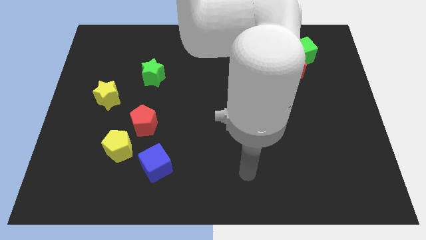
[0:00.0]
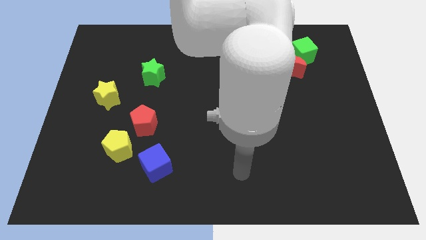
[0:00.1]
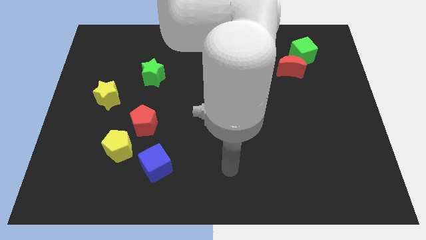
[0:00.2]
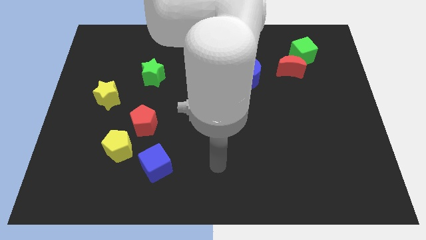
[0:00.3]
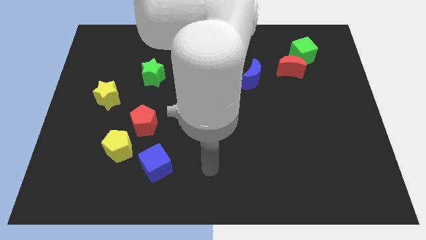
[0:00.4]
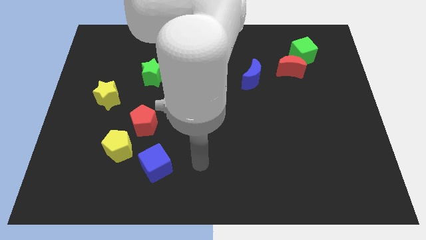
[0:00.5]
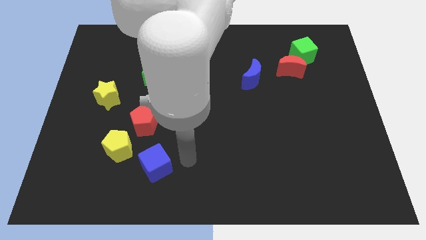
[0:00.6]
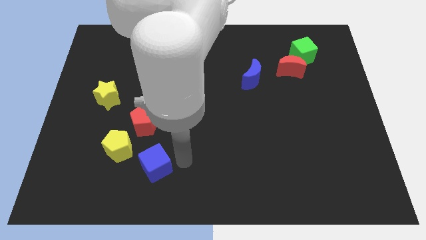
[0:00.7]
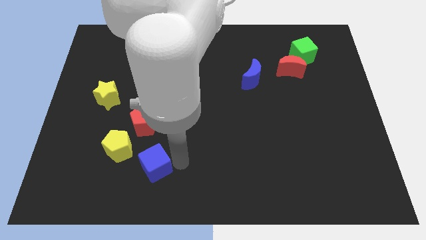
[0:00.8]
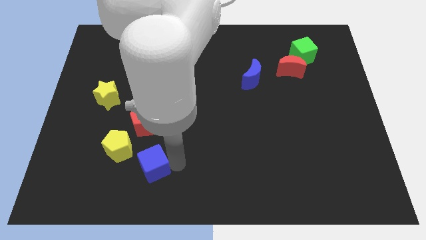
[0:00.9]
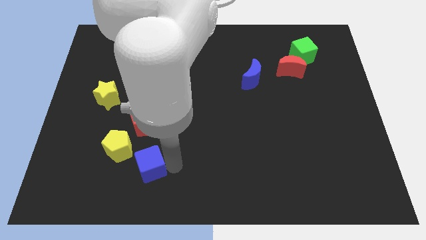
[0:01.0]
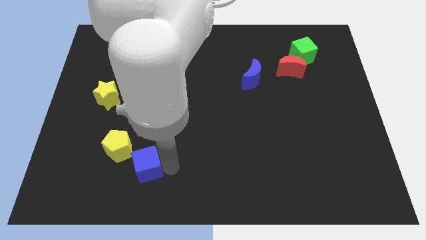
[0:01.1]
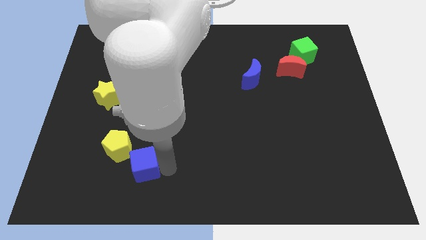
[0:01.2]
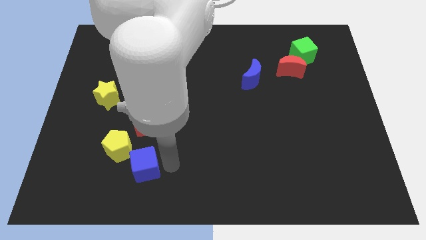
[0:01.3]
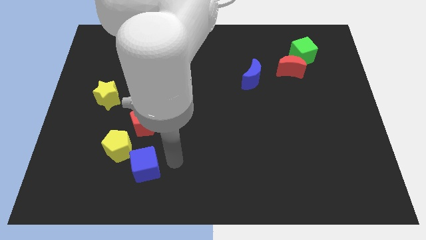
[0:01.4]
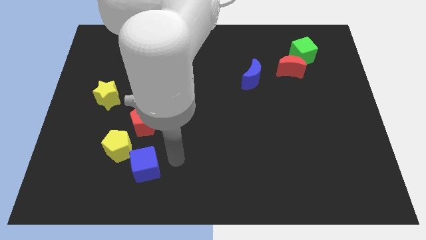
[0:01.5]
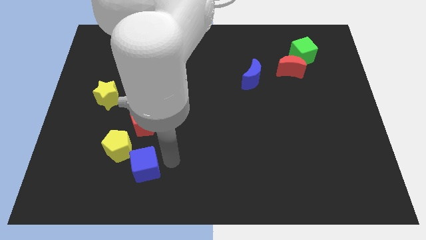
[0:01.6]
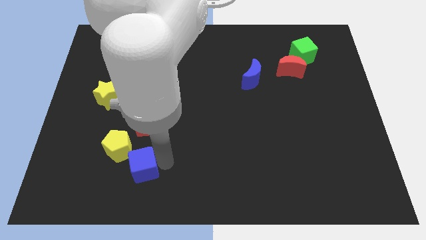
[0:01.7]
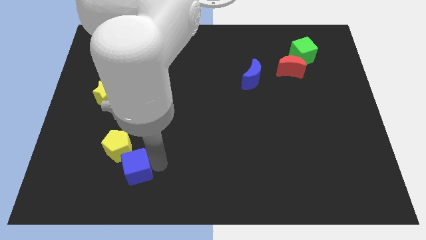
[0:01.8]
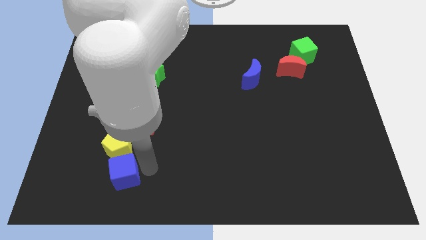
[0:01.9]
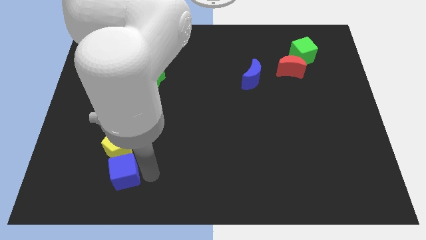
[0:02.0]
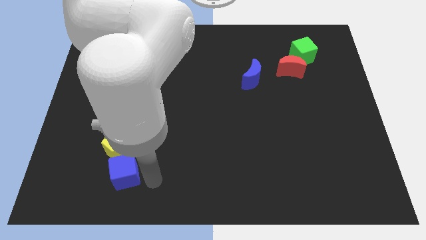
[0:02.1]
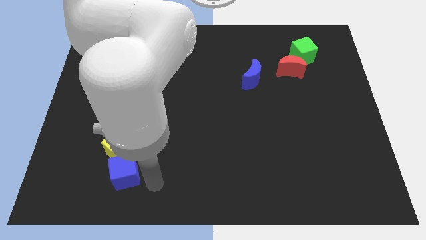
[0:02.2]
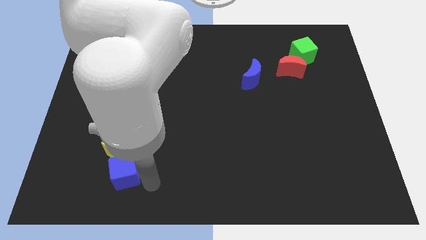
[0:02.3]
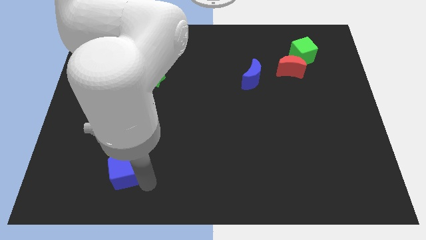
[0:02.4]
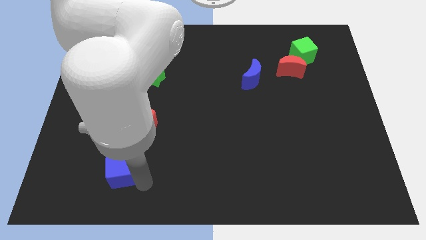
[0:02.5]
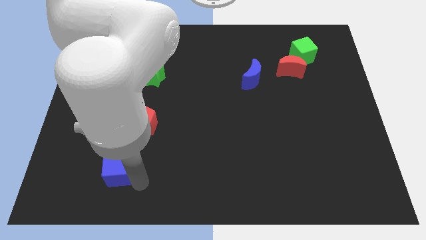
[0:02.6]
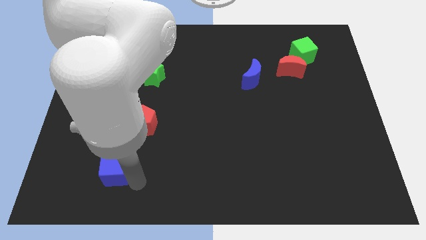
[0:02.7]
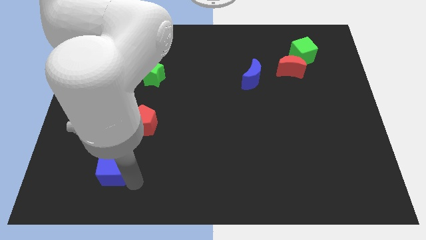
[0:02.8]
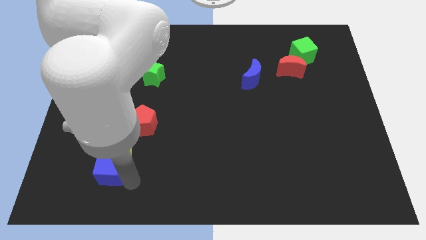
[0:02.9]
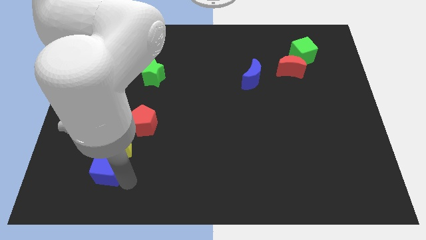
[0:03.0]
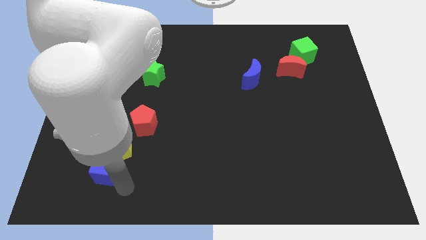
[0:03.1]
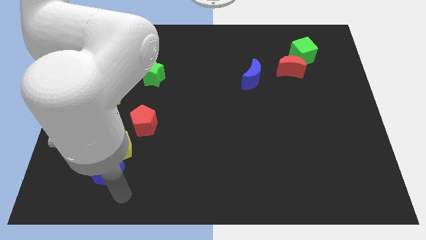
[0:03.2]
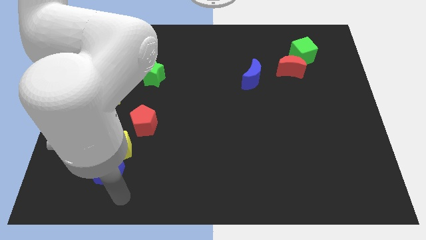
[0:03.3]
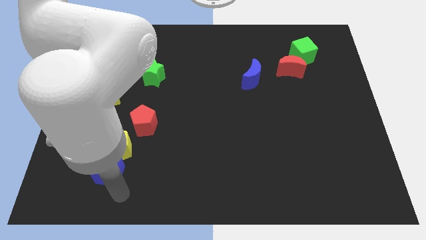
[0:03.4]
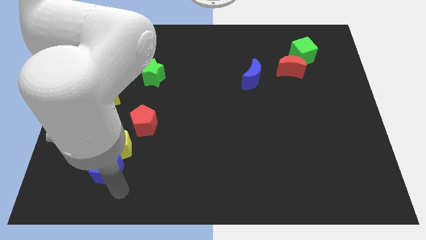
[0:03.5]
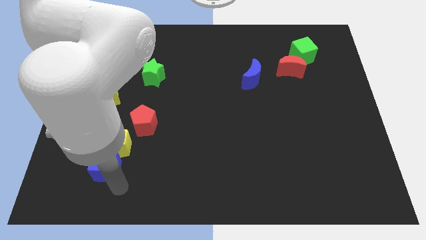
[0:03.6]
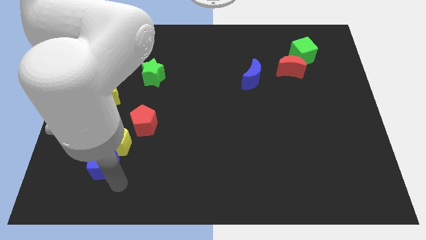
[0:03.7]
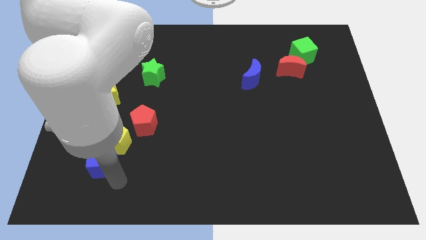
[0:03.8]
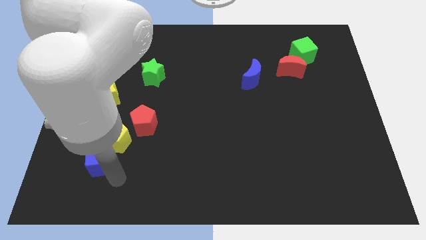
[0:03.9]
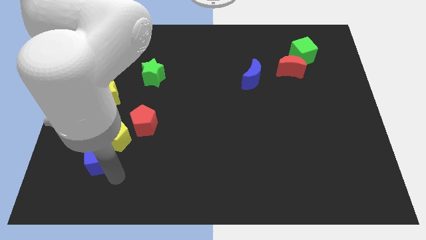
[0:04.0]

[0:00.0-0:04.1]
slide the blue cube up and then left a little

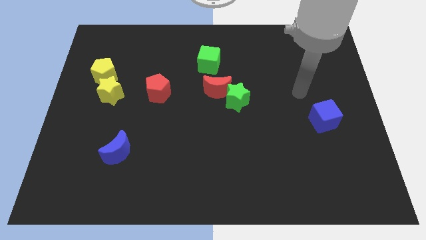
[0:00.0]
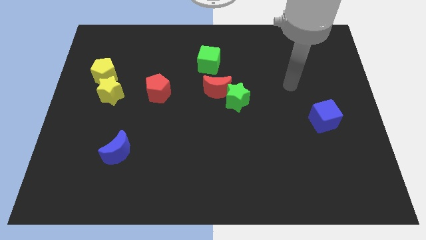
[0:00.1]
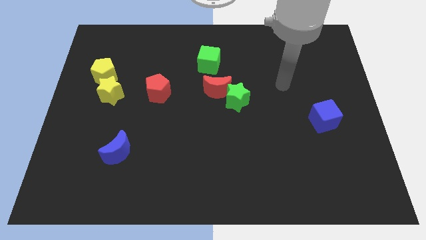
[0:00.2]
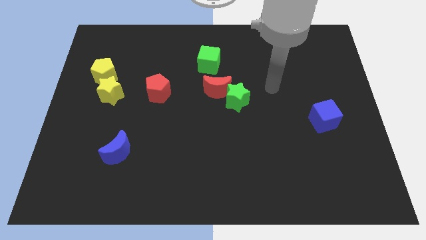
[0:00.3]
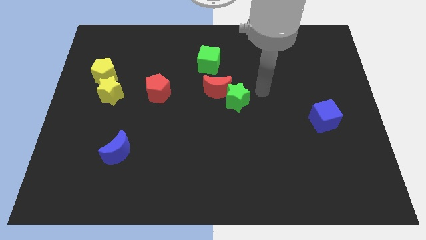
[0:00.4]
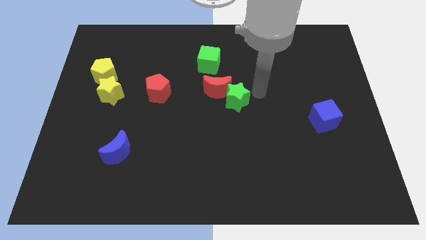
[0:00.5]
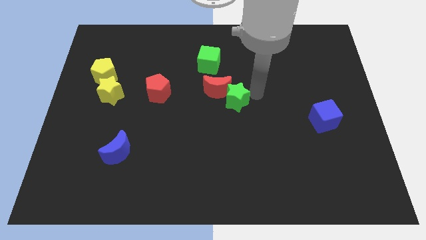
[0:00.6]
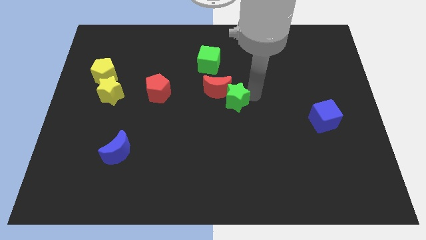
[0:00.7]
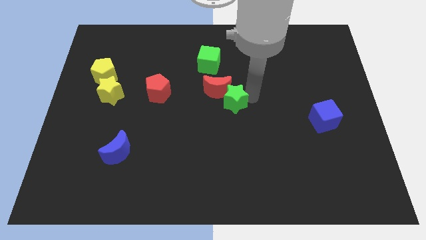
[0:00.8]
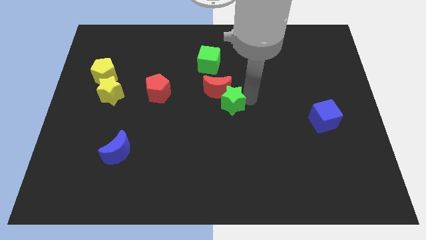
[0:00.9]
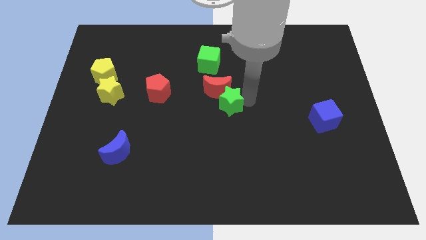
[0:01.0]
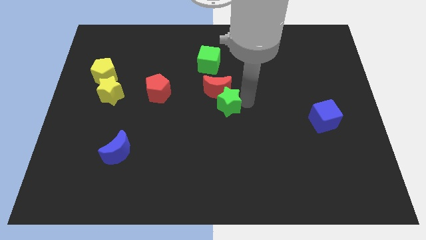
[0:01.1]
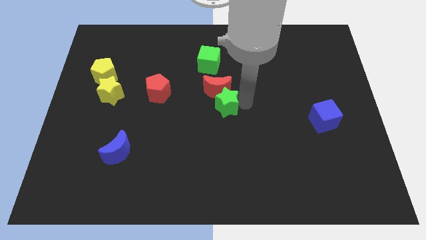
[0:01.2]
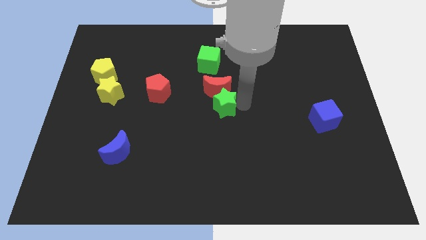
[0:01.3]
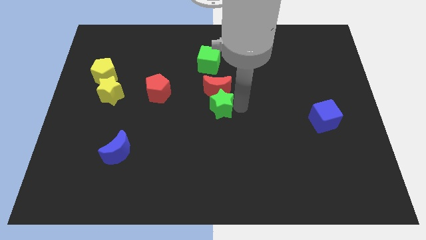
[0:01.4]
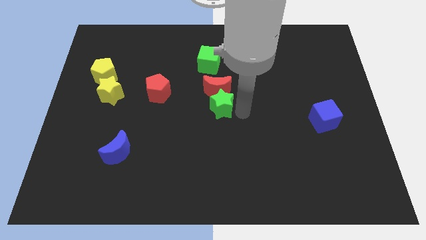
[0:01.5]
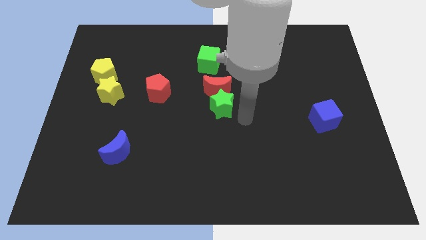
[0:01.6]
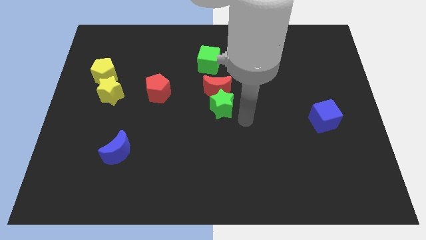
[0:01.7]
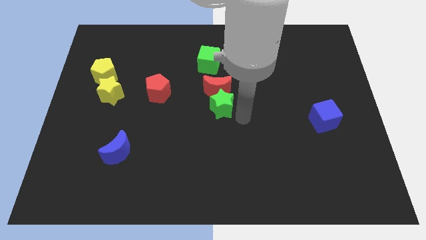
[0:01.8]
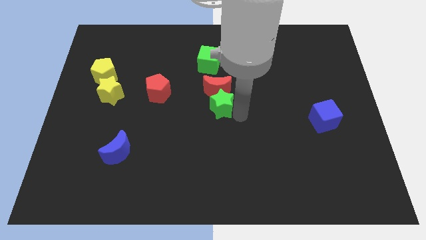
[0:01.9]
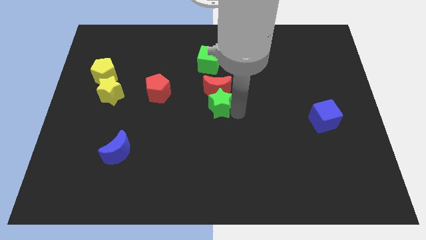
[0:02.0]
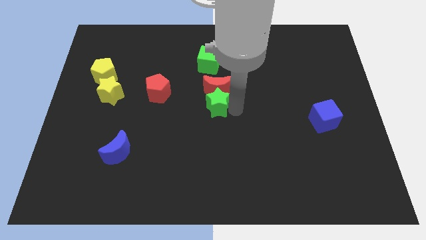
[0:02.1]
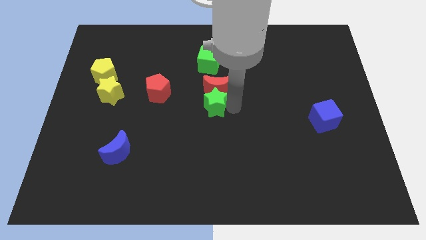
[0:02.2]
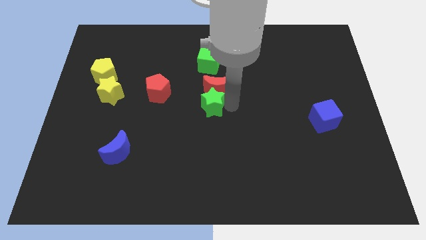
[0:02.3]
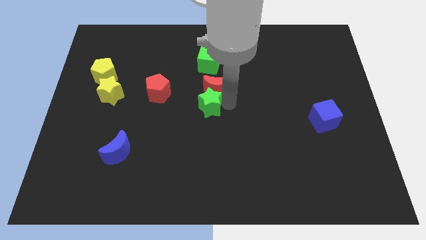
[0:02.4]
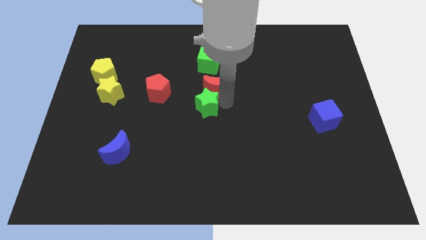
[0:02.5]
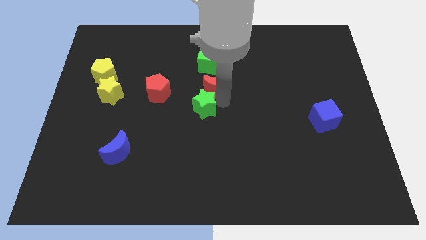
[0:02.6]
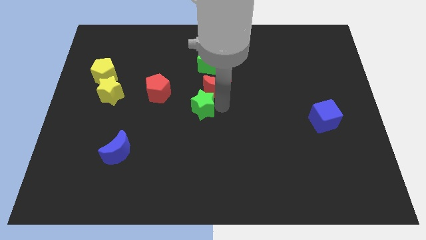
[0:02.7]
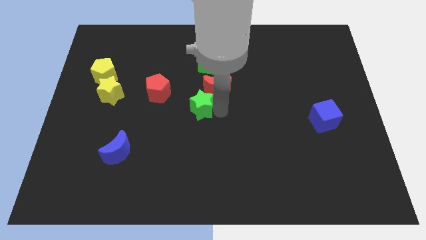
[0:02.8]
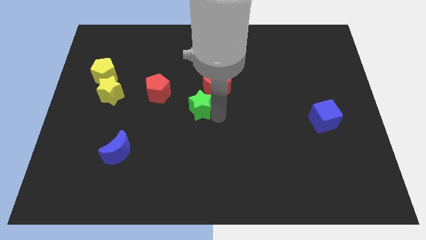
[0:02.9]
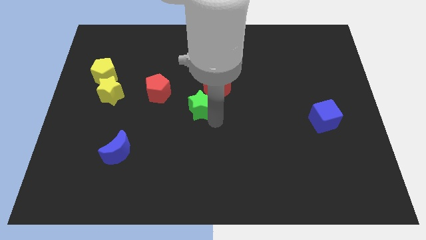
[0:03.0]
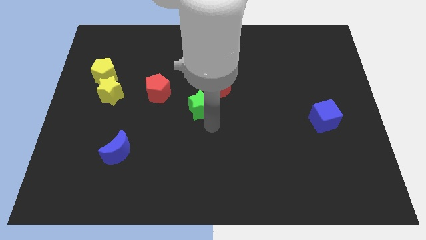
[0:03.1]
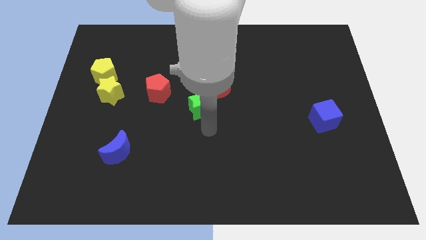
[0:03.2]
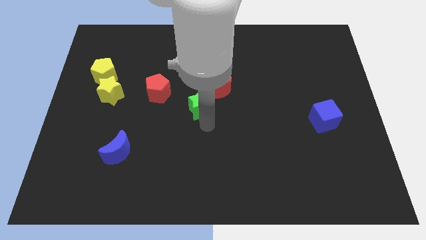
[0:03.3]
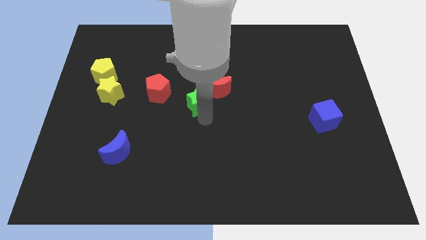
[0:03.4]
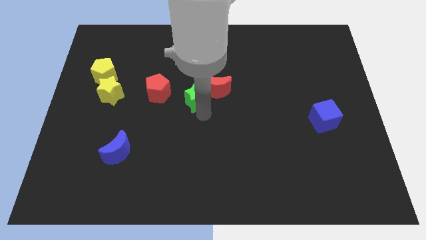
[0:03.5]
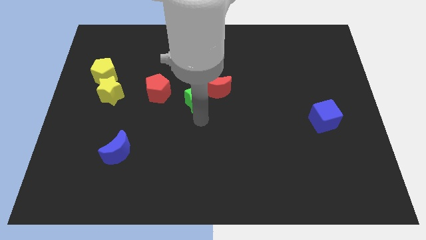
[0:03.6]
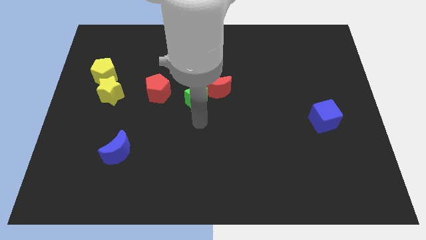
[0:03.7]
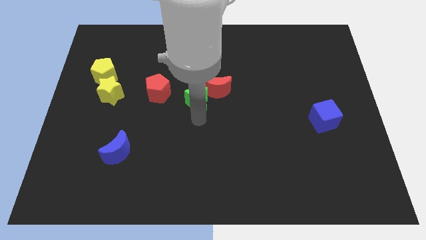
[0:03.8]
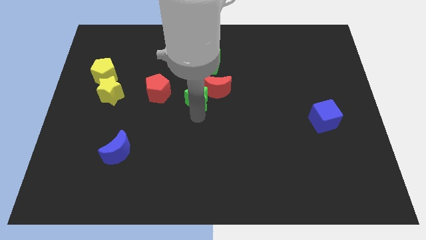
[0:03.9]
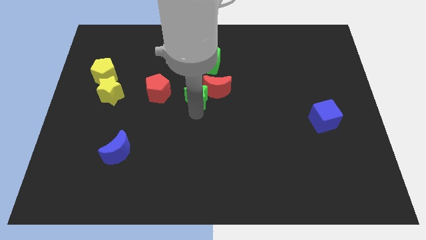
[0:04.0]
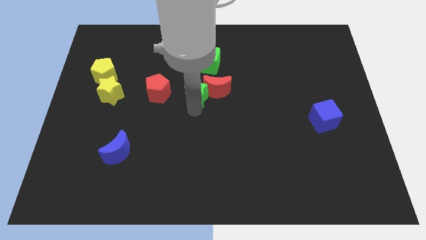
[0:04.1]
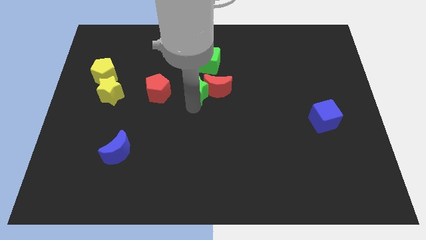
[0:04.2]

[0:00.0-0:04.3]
push the green star a little bit upwards and to the left diagonally
